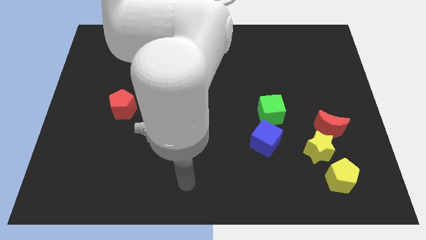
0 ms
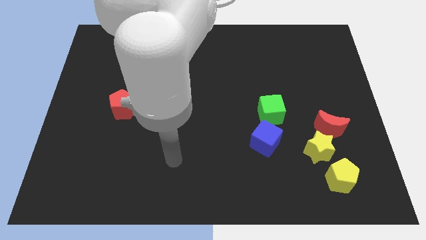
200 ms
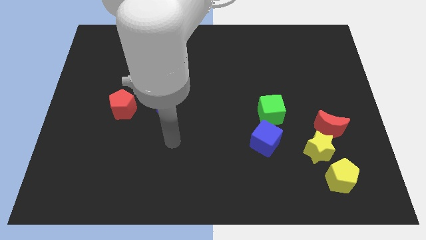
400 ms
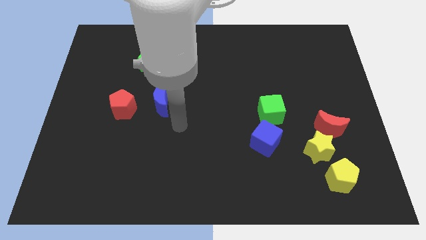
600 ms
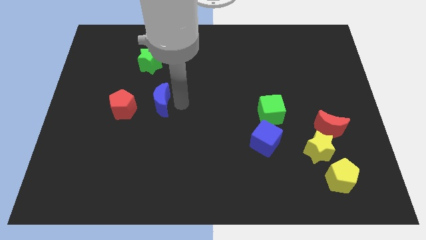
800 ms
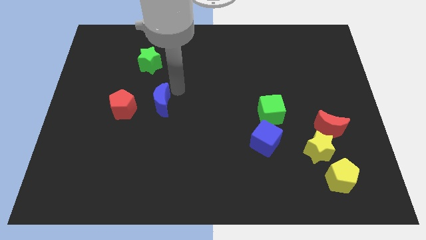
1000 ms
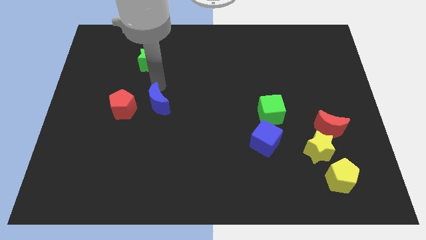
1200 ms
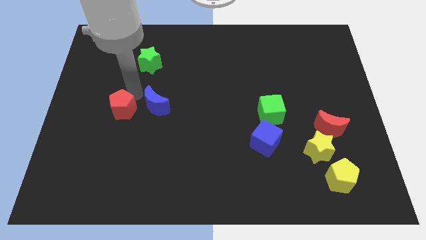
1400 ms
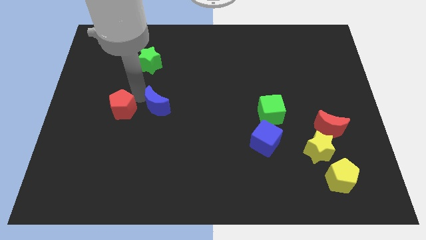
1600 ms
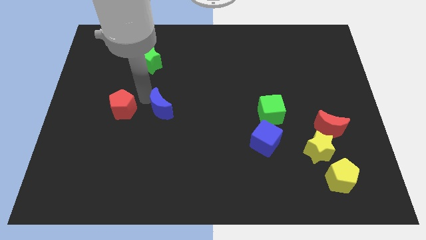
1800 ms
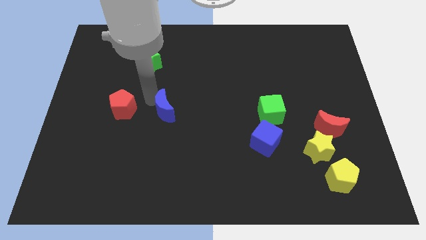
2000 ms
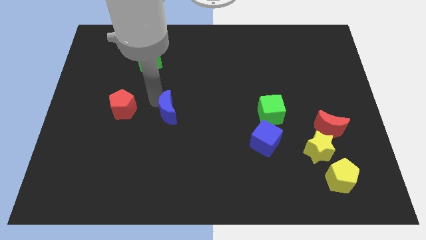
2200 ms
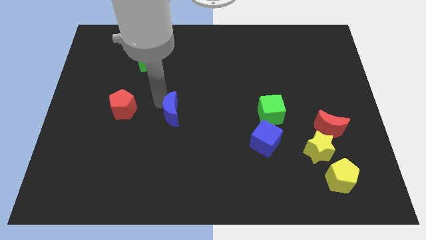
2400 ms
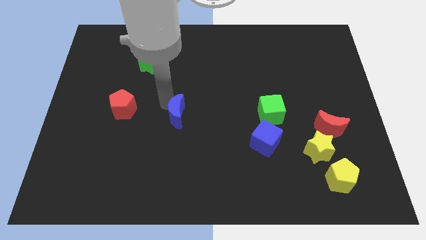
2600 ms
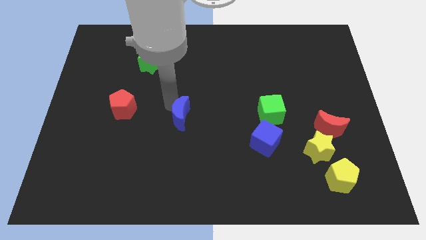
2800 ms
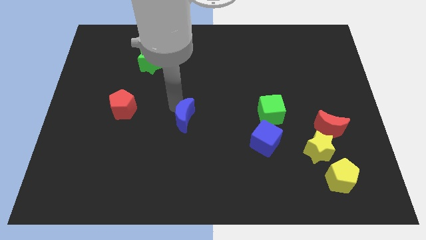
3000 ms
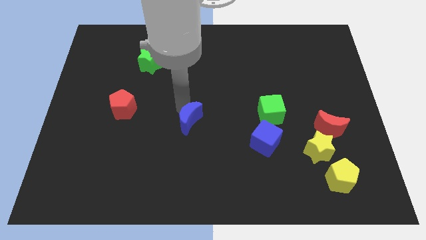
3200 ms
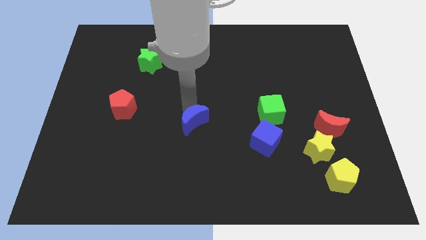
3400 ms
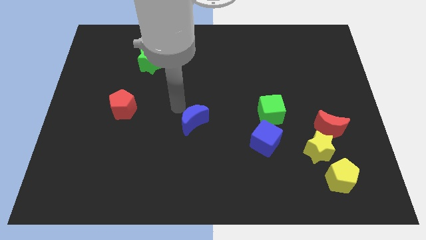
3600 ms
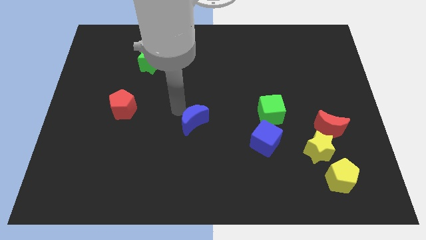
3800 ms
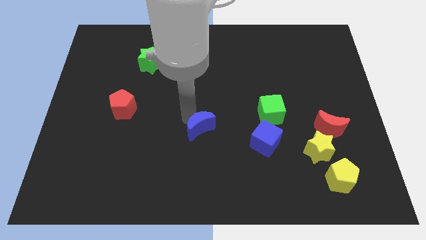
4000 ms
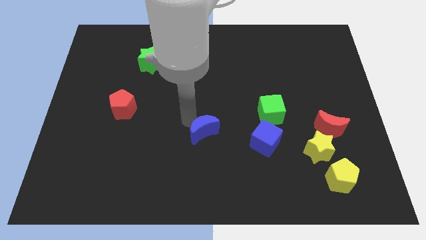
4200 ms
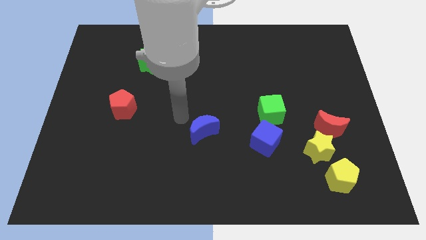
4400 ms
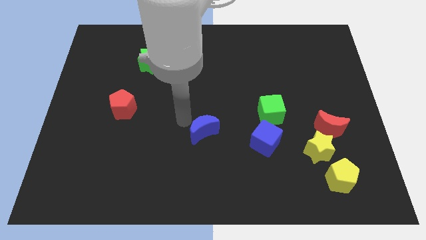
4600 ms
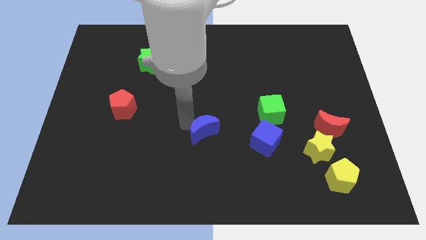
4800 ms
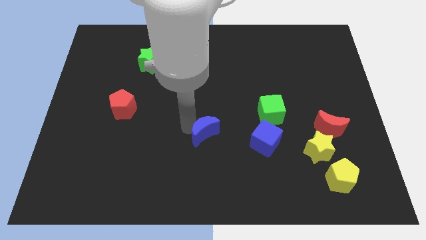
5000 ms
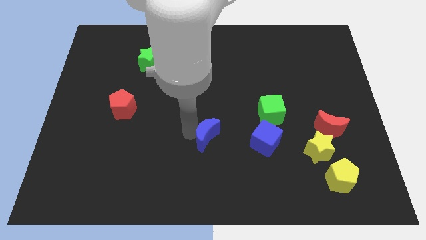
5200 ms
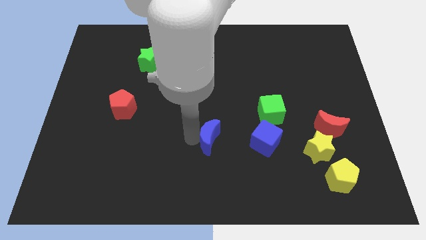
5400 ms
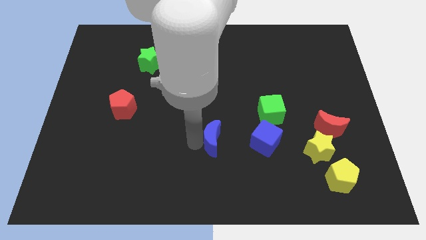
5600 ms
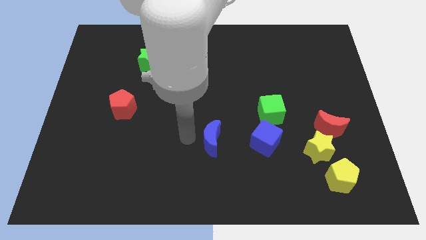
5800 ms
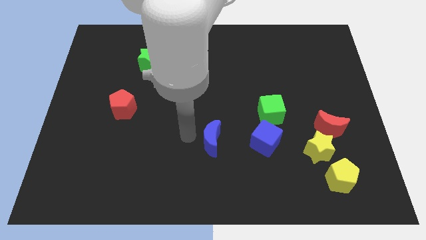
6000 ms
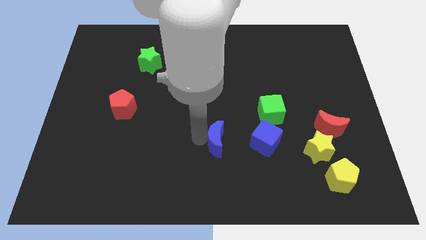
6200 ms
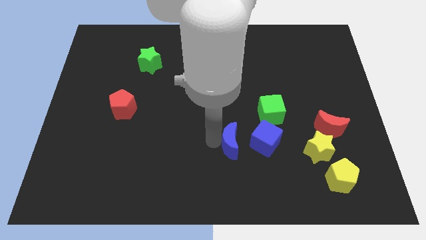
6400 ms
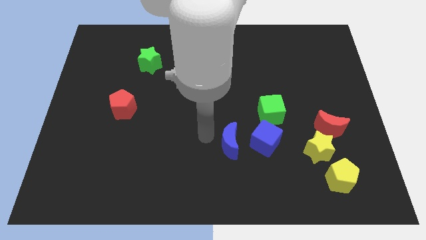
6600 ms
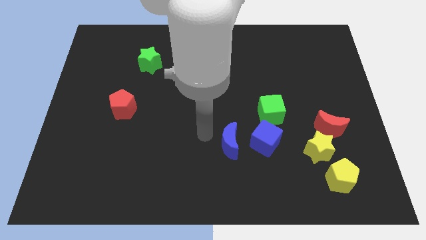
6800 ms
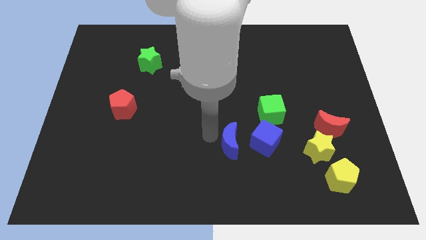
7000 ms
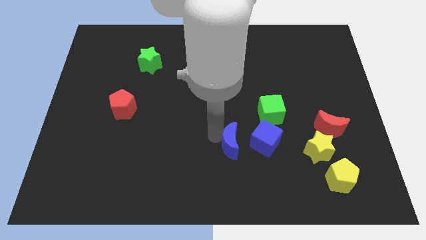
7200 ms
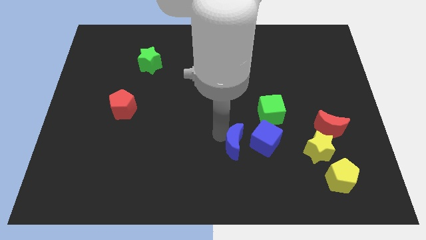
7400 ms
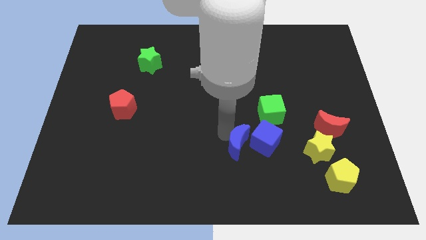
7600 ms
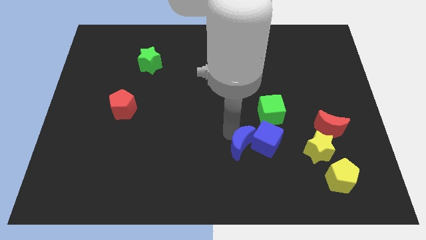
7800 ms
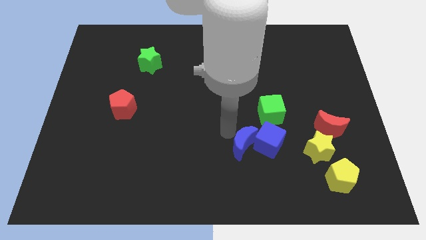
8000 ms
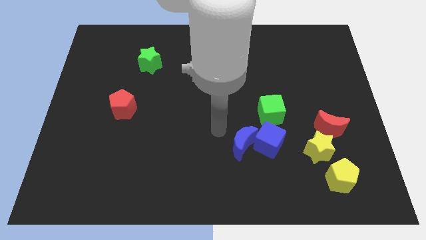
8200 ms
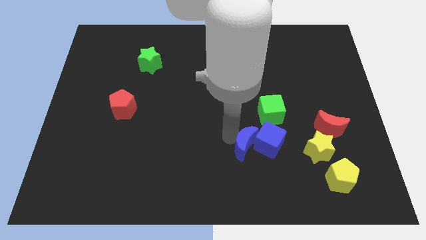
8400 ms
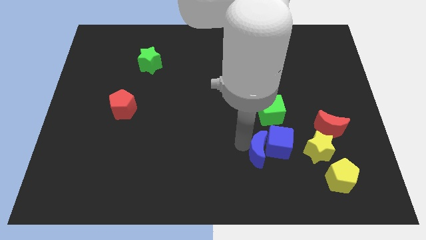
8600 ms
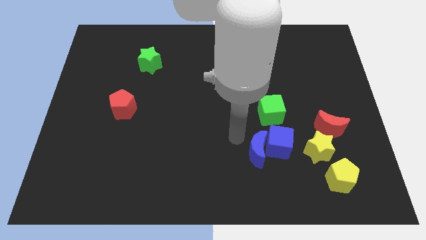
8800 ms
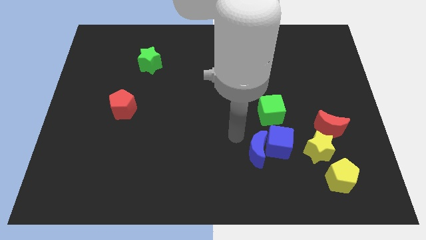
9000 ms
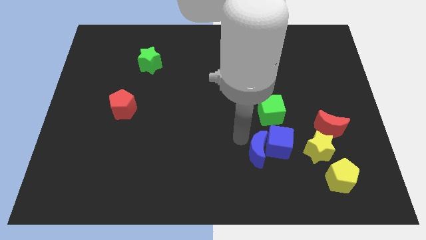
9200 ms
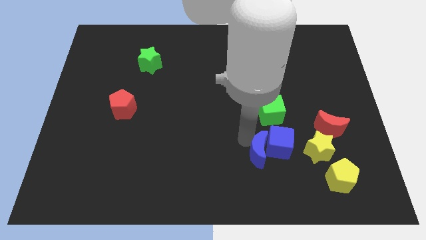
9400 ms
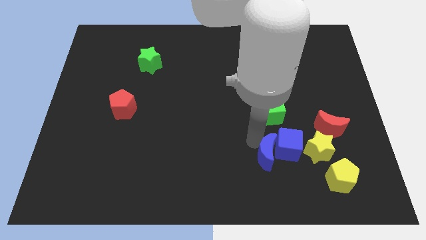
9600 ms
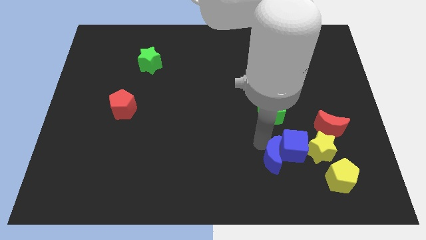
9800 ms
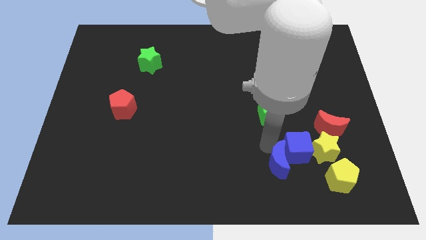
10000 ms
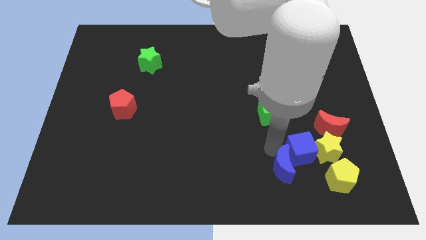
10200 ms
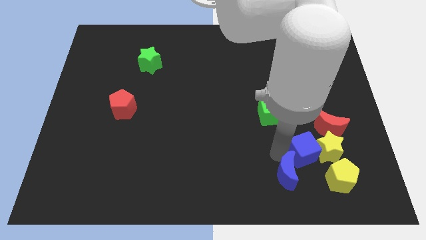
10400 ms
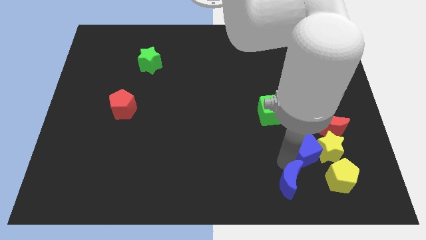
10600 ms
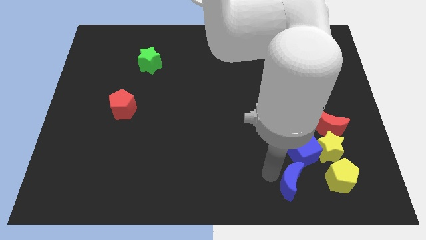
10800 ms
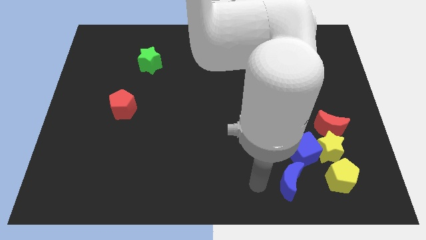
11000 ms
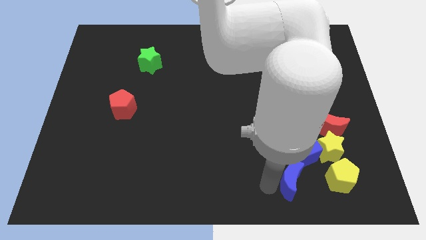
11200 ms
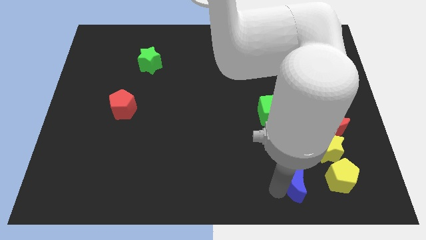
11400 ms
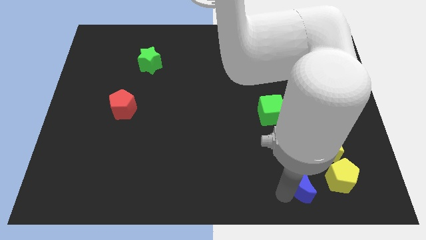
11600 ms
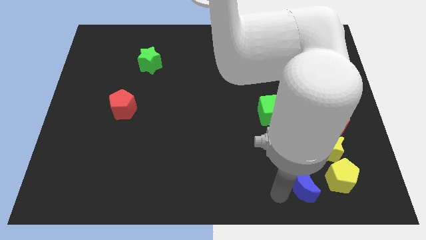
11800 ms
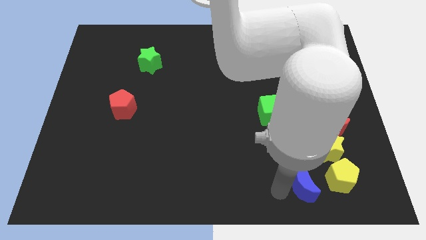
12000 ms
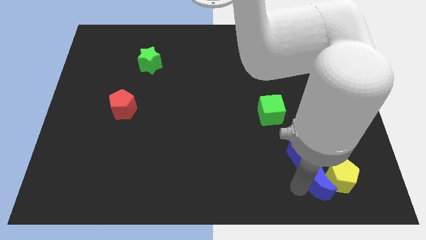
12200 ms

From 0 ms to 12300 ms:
slide the blue moon next to the yellow pentagon

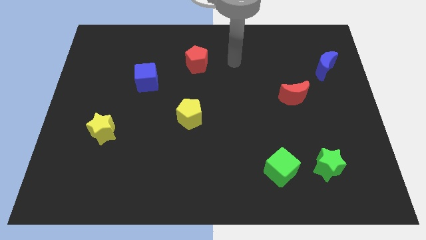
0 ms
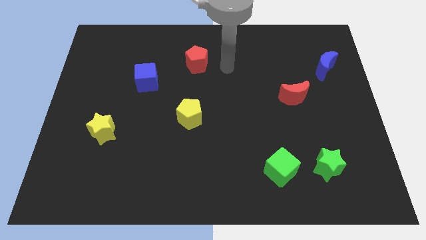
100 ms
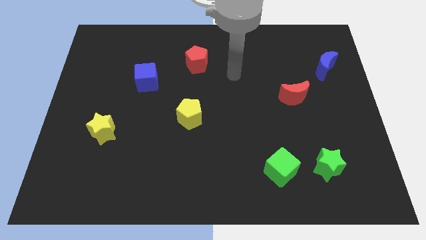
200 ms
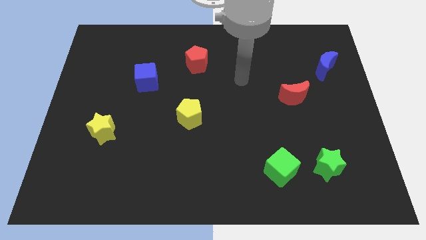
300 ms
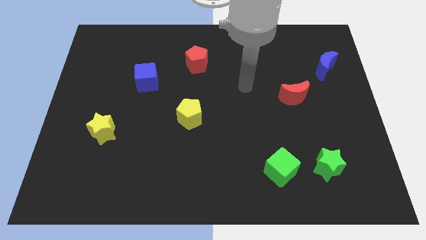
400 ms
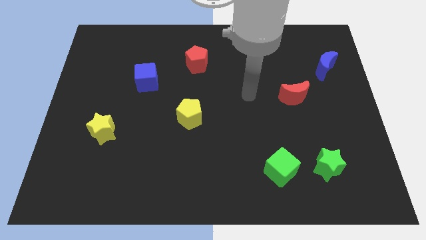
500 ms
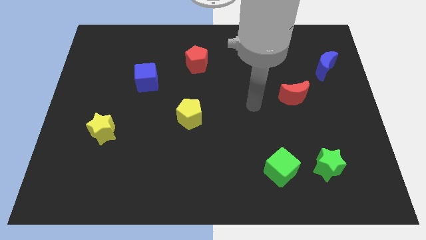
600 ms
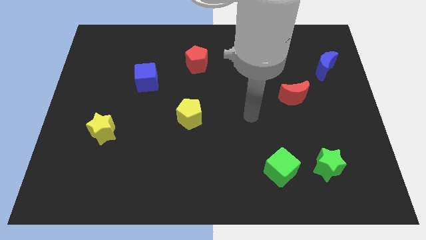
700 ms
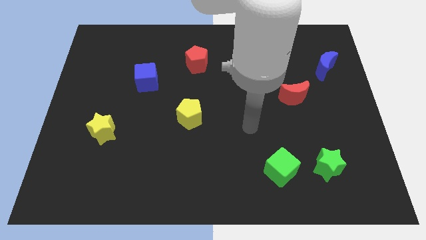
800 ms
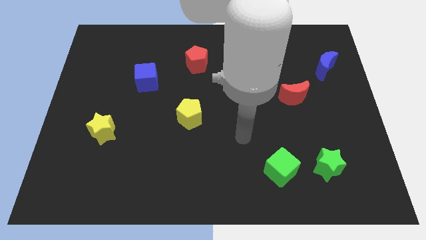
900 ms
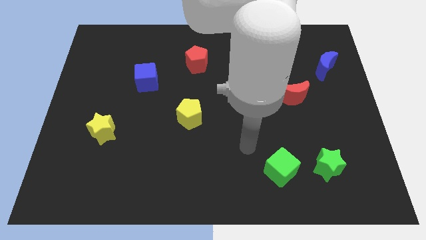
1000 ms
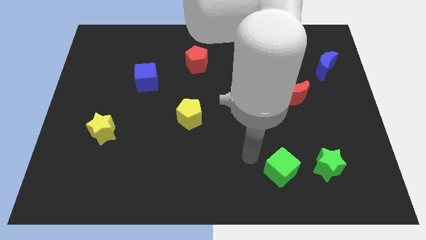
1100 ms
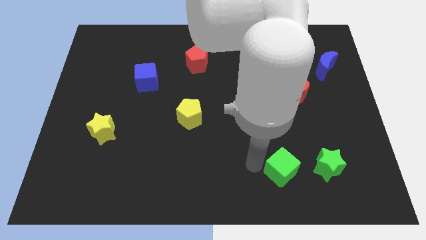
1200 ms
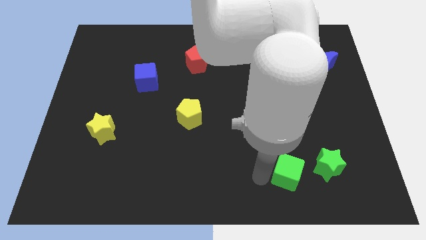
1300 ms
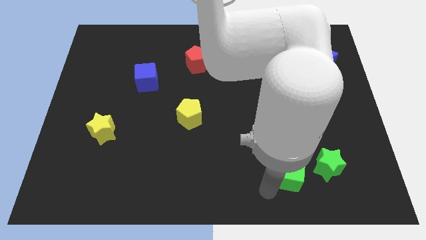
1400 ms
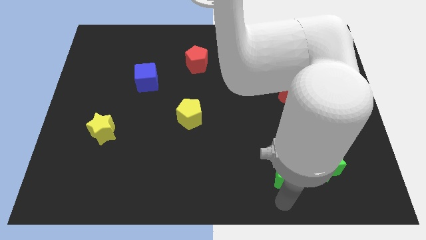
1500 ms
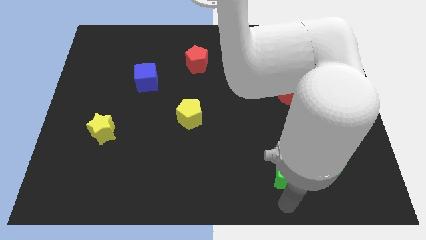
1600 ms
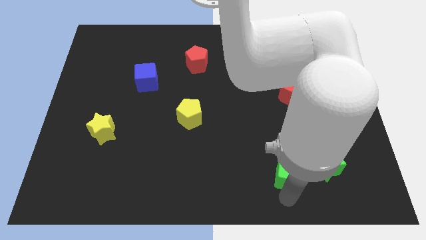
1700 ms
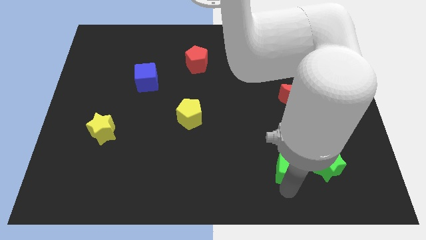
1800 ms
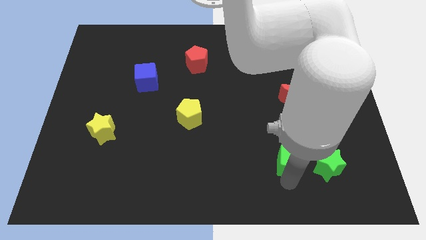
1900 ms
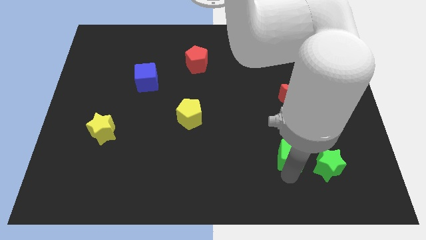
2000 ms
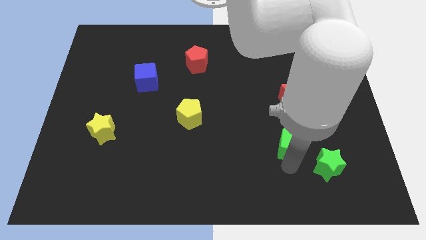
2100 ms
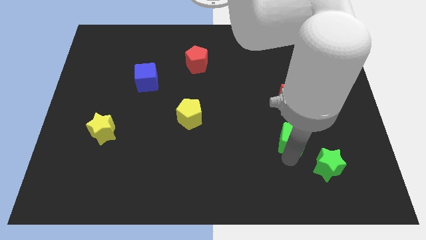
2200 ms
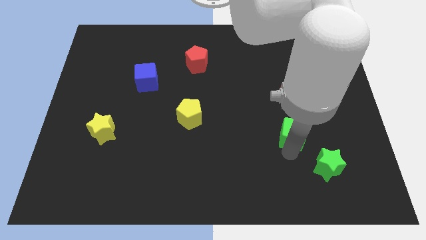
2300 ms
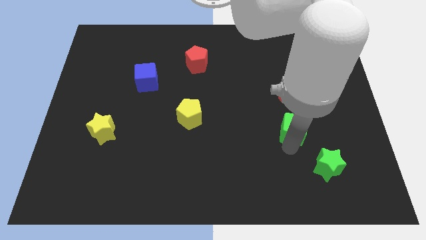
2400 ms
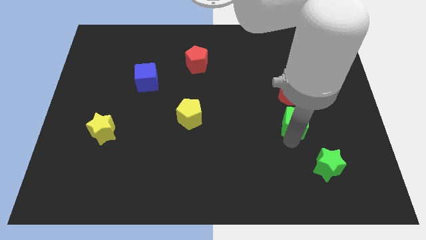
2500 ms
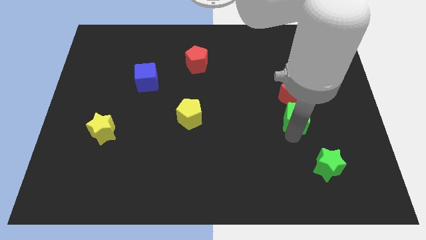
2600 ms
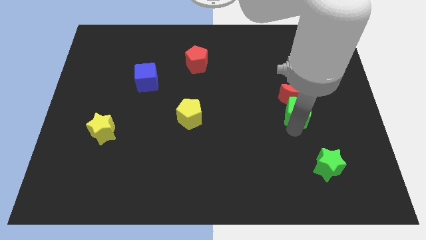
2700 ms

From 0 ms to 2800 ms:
move the green cube towards the red moon
